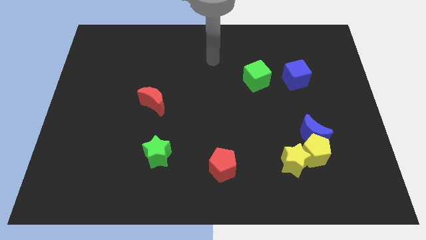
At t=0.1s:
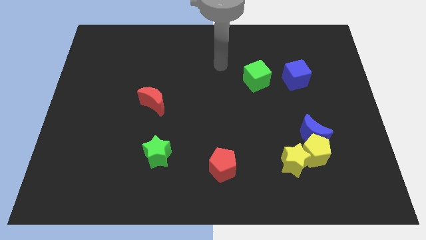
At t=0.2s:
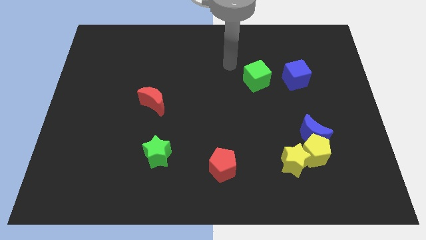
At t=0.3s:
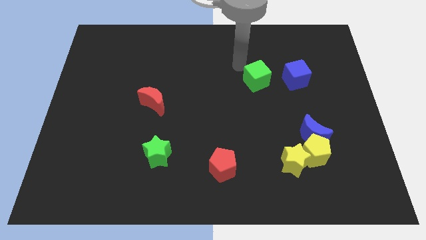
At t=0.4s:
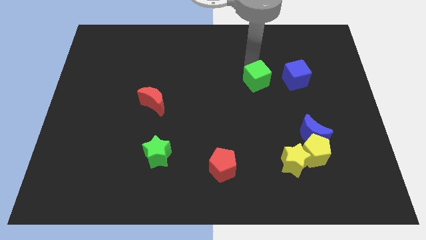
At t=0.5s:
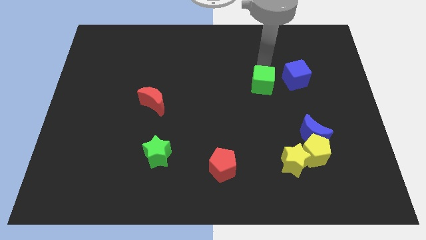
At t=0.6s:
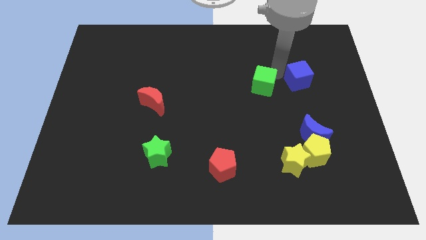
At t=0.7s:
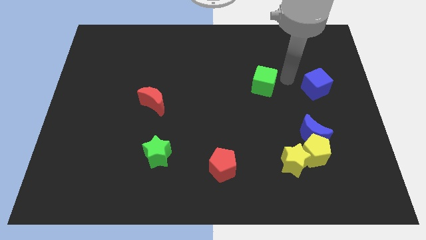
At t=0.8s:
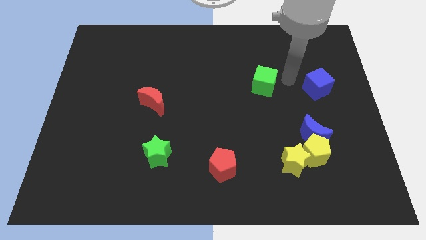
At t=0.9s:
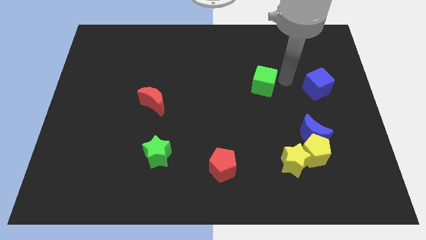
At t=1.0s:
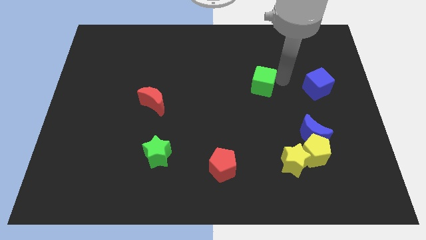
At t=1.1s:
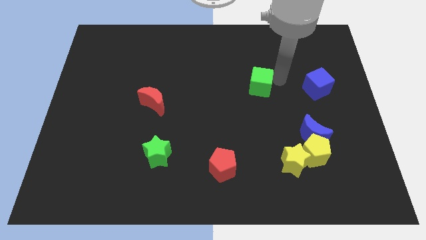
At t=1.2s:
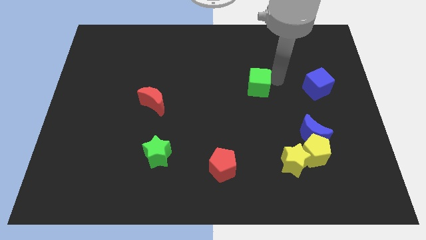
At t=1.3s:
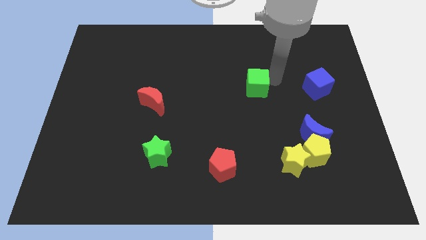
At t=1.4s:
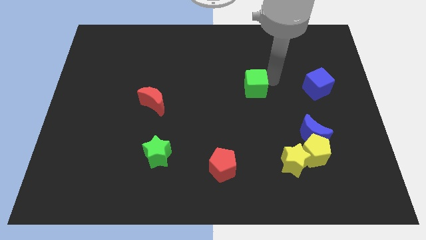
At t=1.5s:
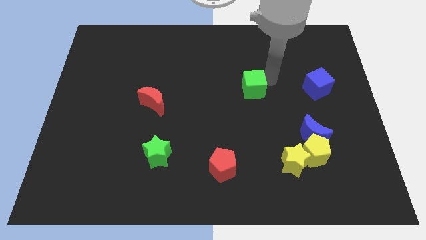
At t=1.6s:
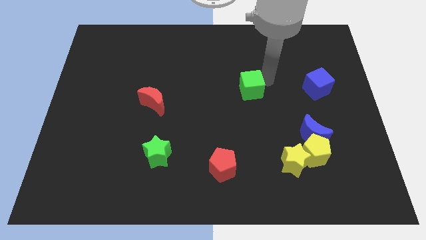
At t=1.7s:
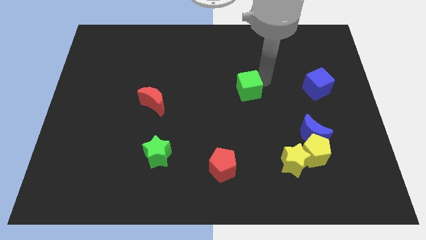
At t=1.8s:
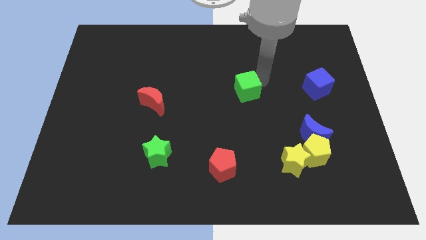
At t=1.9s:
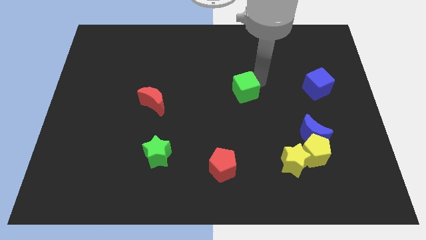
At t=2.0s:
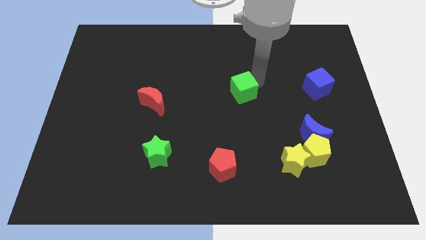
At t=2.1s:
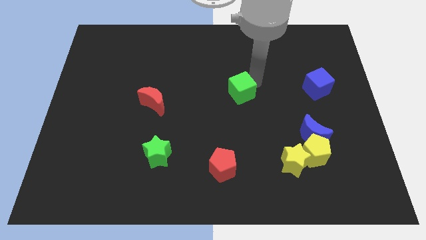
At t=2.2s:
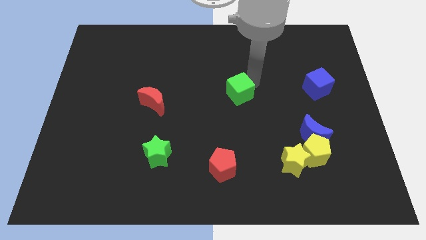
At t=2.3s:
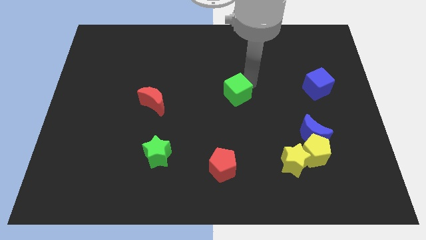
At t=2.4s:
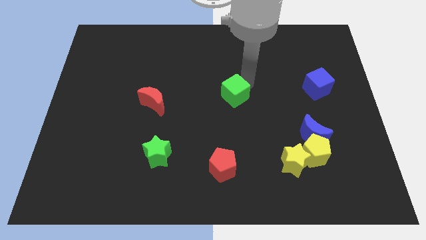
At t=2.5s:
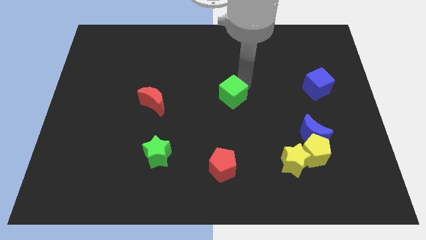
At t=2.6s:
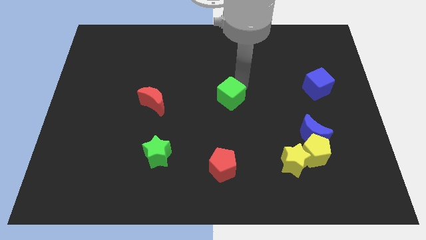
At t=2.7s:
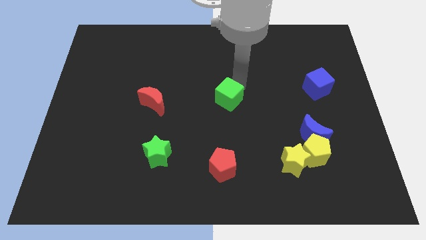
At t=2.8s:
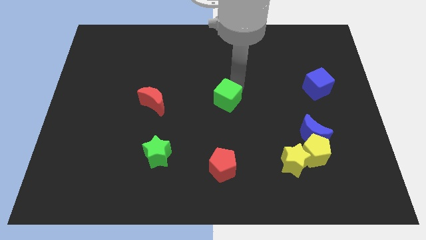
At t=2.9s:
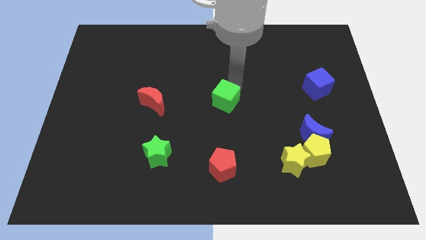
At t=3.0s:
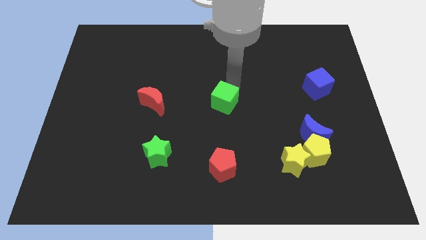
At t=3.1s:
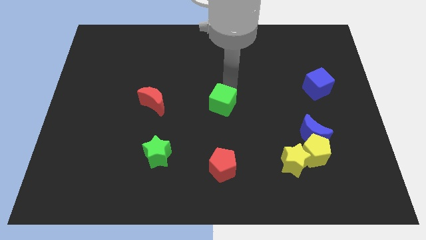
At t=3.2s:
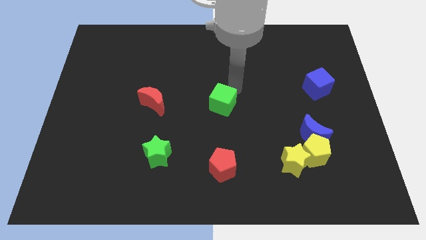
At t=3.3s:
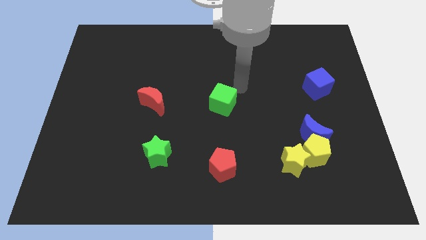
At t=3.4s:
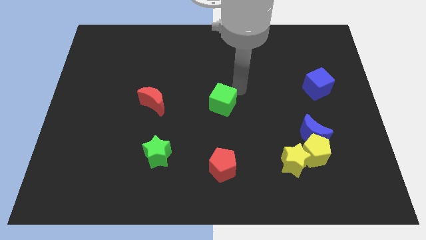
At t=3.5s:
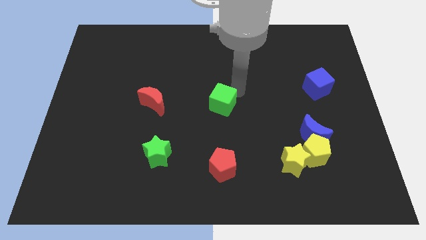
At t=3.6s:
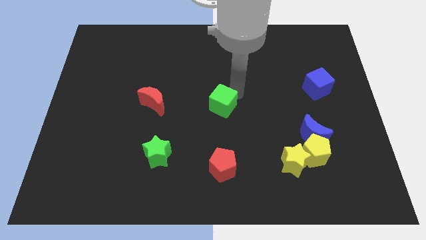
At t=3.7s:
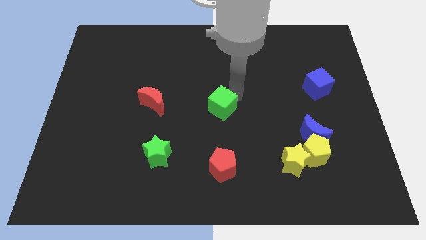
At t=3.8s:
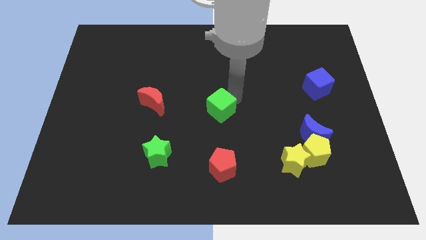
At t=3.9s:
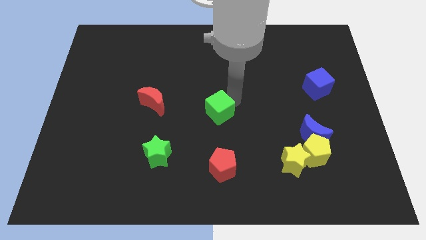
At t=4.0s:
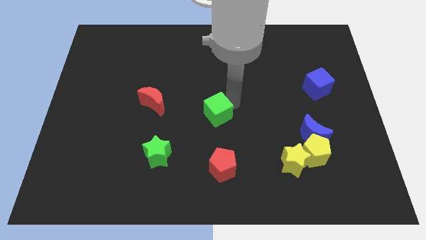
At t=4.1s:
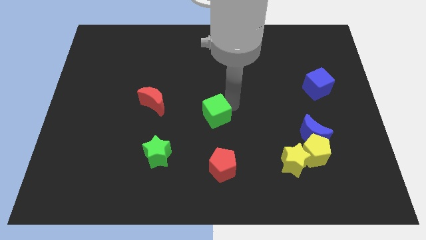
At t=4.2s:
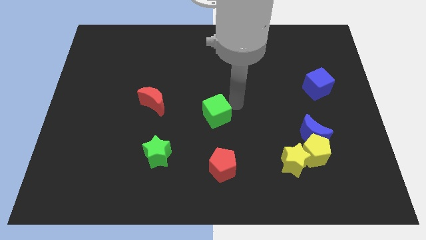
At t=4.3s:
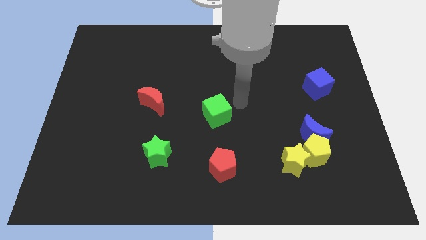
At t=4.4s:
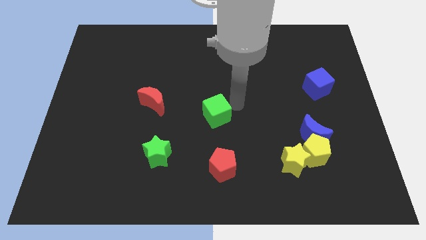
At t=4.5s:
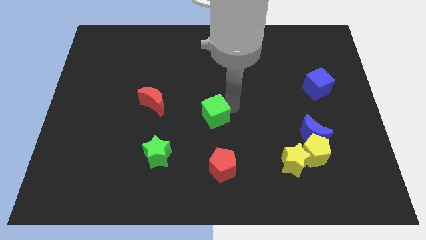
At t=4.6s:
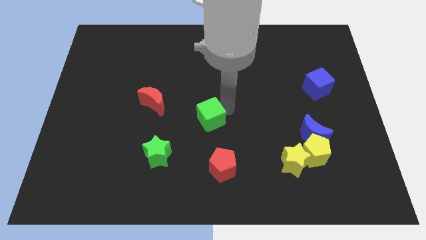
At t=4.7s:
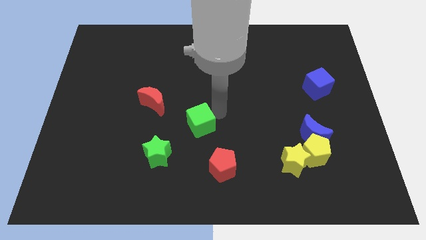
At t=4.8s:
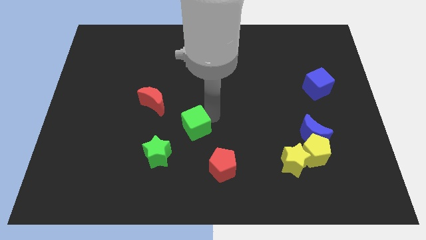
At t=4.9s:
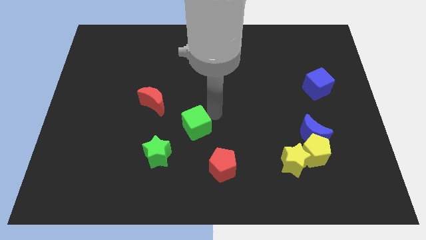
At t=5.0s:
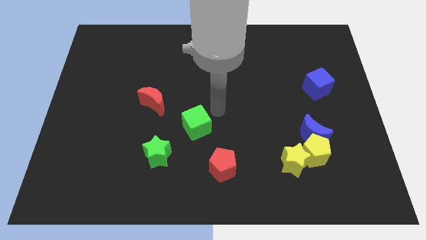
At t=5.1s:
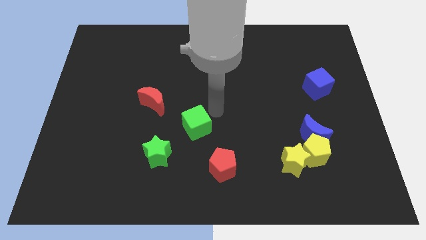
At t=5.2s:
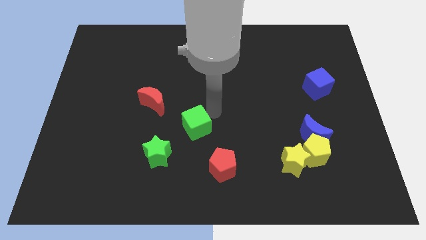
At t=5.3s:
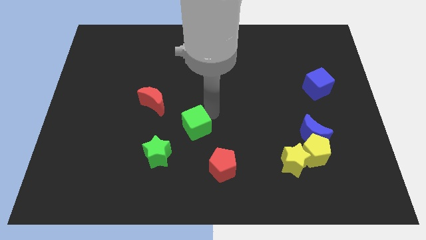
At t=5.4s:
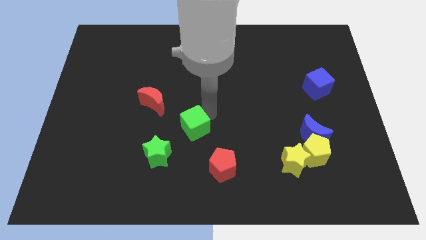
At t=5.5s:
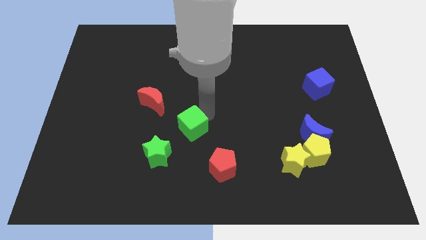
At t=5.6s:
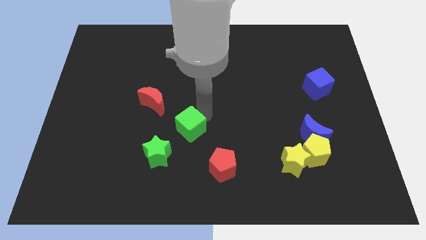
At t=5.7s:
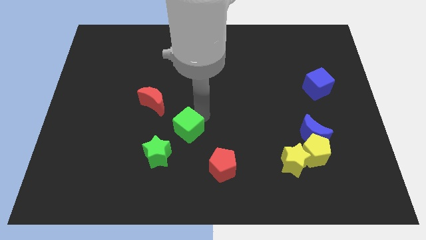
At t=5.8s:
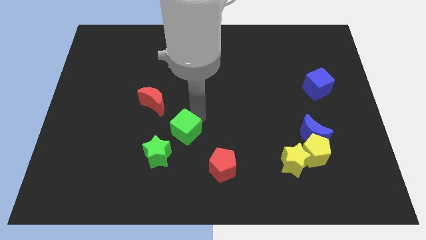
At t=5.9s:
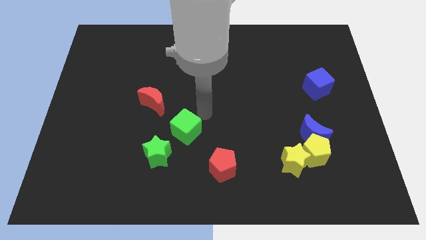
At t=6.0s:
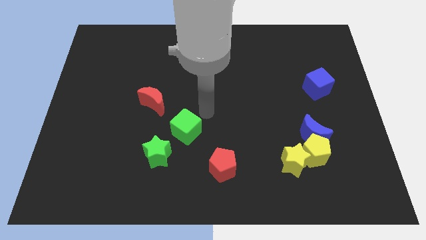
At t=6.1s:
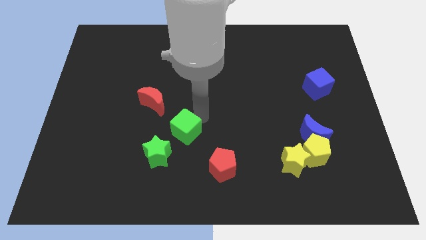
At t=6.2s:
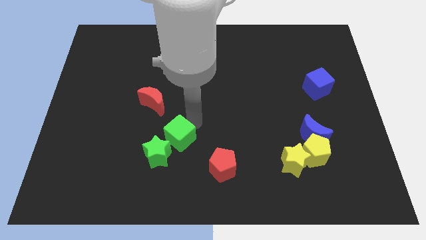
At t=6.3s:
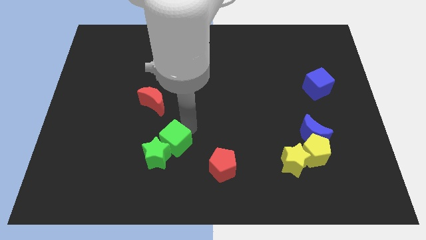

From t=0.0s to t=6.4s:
slide the green cube close to the green star

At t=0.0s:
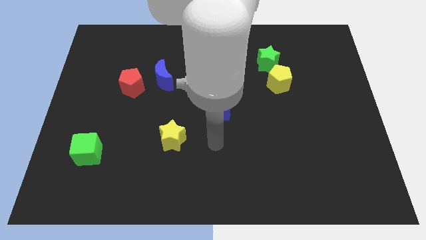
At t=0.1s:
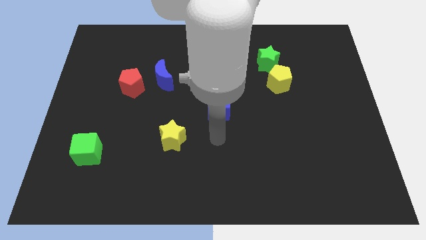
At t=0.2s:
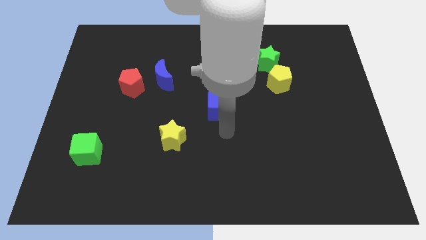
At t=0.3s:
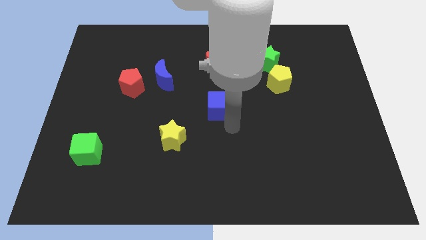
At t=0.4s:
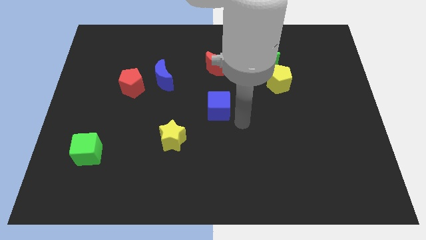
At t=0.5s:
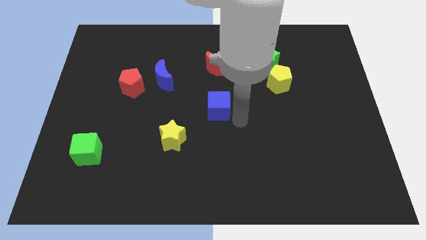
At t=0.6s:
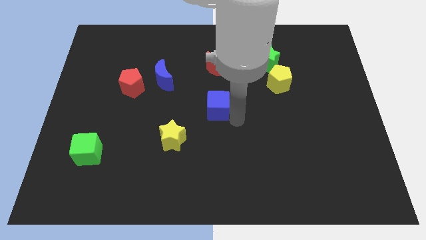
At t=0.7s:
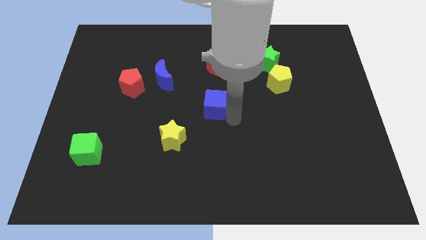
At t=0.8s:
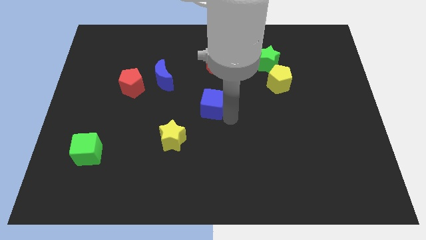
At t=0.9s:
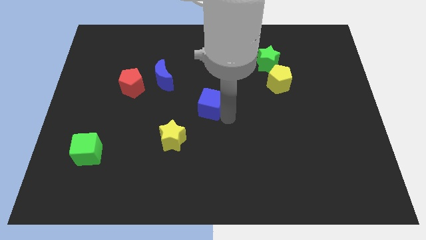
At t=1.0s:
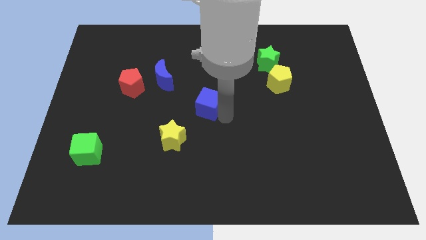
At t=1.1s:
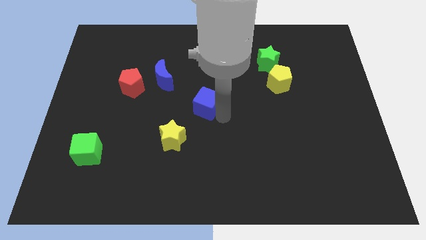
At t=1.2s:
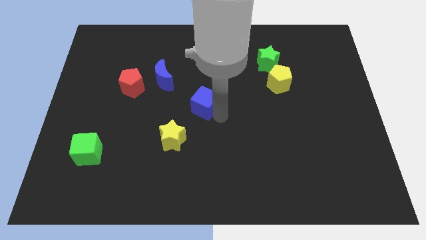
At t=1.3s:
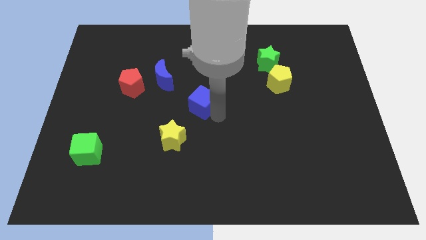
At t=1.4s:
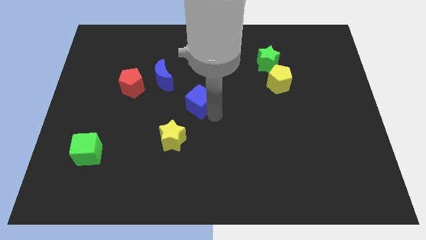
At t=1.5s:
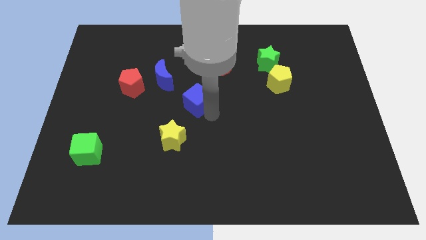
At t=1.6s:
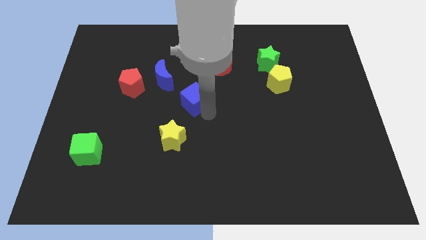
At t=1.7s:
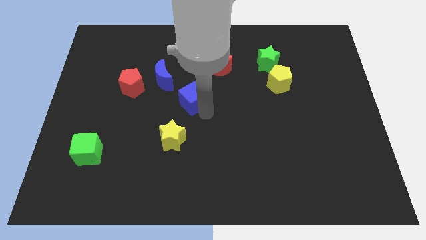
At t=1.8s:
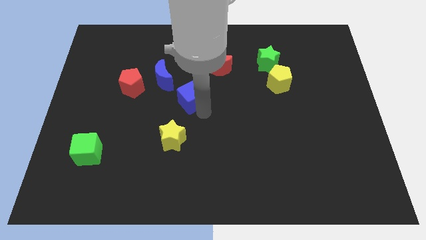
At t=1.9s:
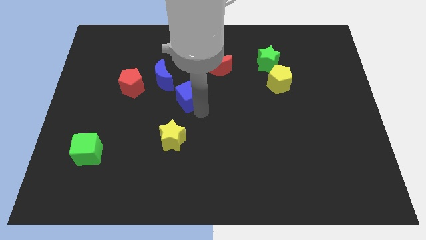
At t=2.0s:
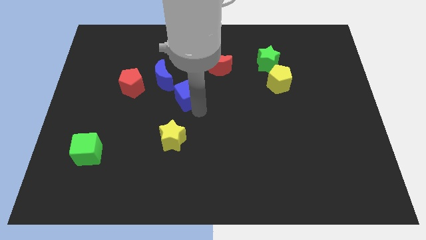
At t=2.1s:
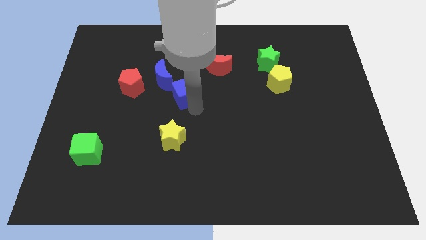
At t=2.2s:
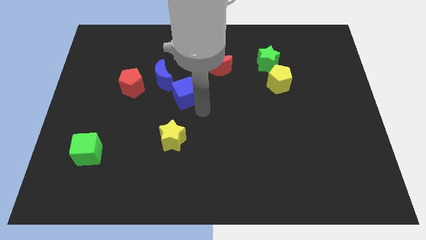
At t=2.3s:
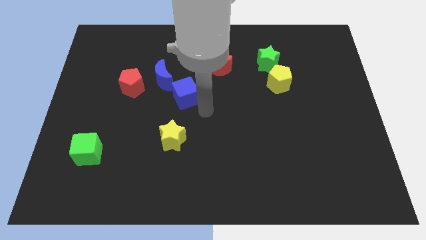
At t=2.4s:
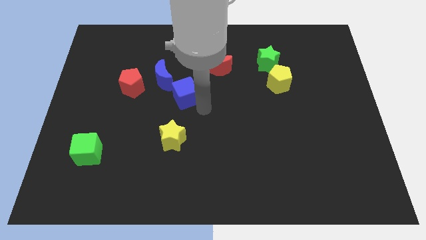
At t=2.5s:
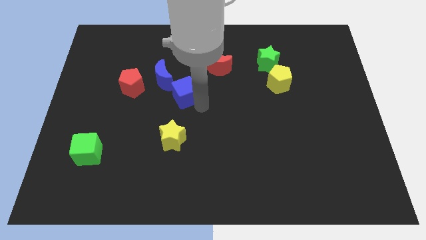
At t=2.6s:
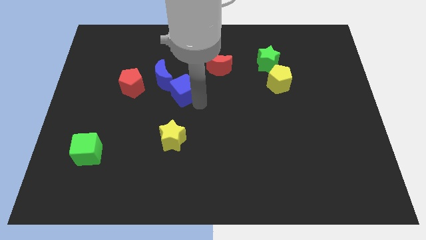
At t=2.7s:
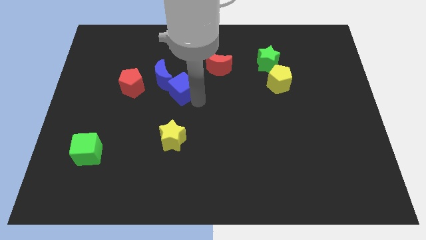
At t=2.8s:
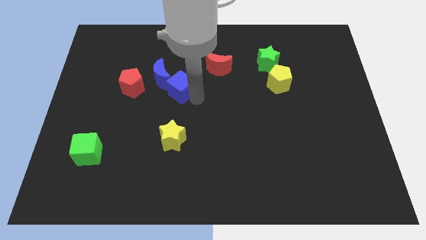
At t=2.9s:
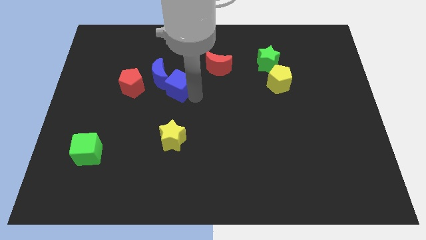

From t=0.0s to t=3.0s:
move the blue cube to the blue moon
